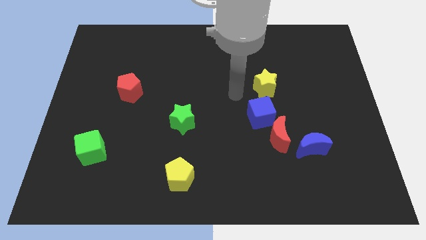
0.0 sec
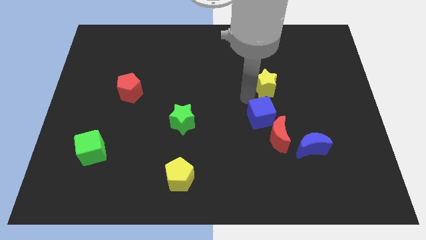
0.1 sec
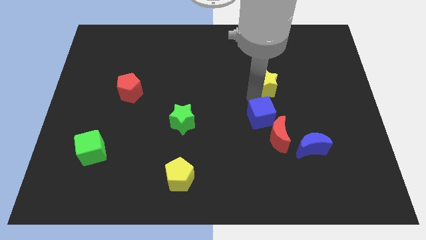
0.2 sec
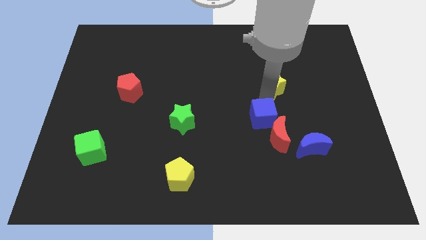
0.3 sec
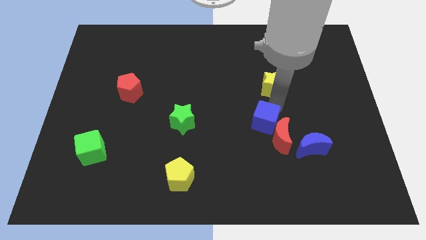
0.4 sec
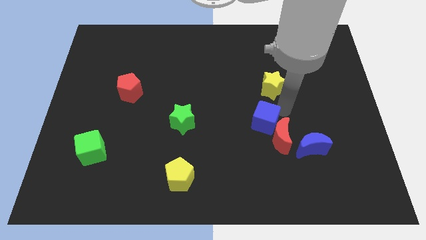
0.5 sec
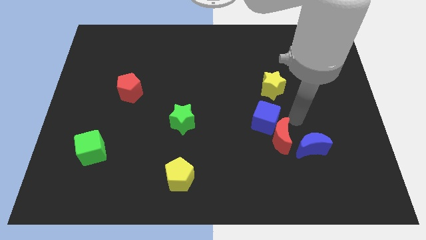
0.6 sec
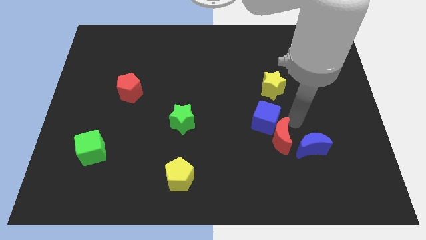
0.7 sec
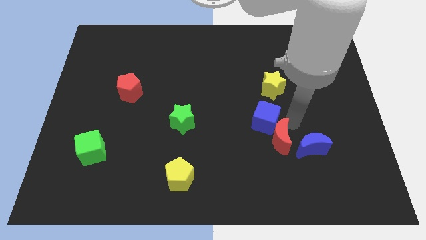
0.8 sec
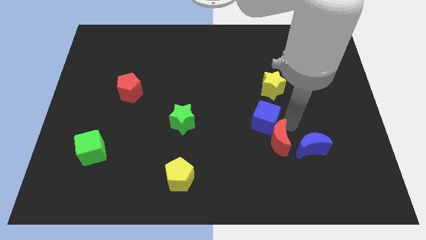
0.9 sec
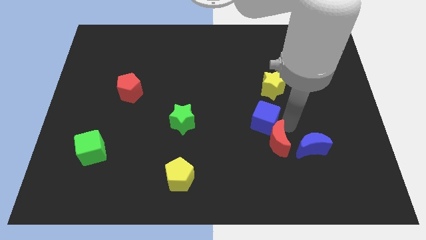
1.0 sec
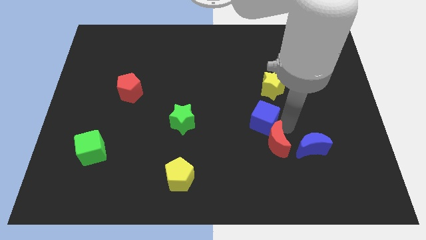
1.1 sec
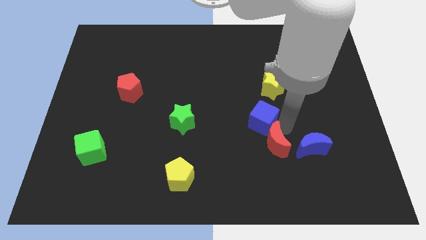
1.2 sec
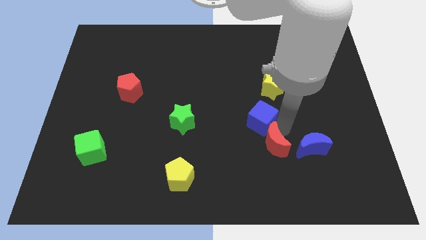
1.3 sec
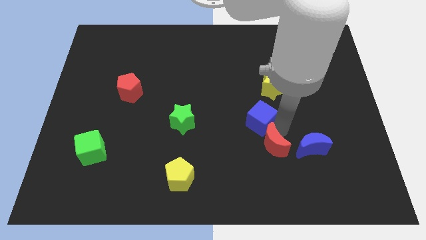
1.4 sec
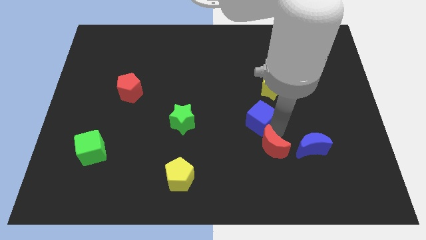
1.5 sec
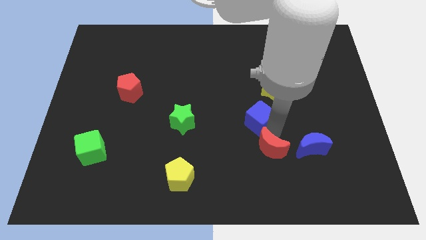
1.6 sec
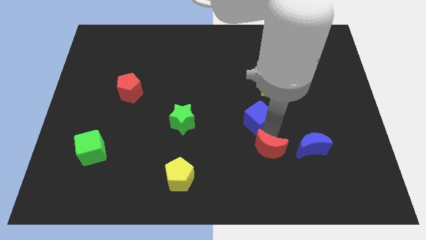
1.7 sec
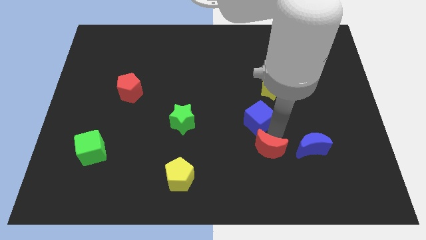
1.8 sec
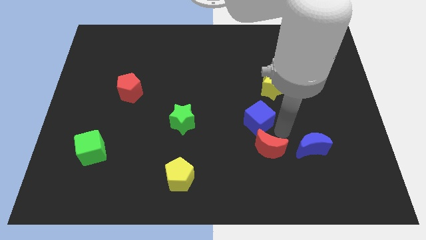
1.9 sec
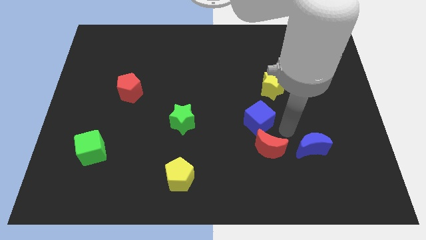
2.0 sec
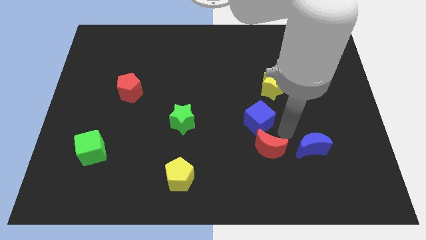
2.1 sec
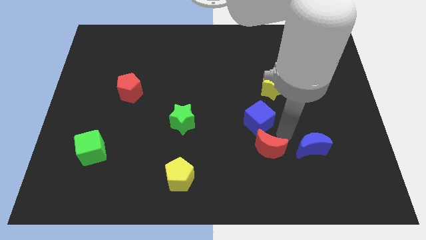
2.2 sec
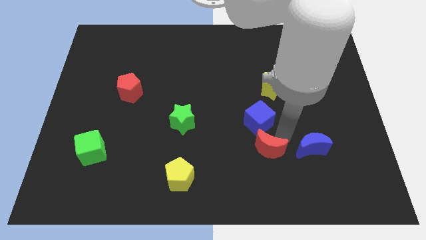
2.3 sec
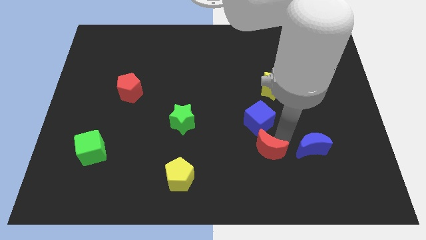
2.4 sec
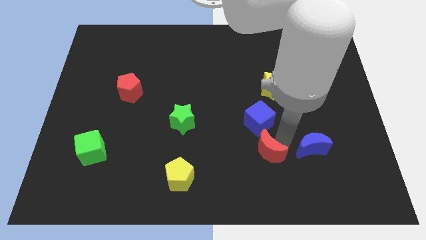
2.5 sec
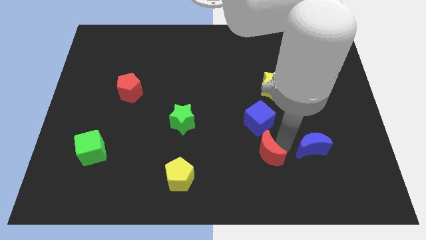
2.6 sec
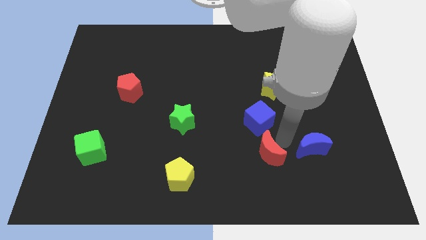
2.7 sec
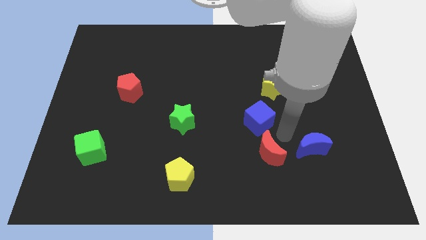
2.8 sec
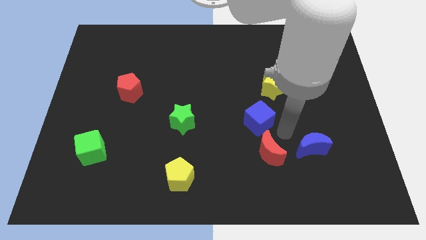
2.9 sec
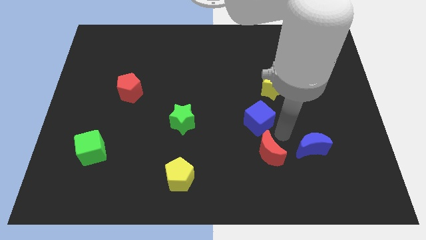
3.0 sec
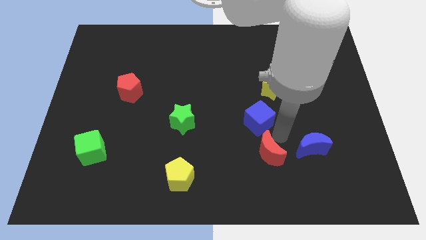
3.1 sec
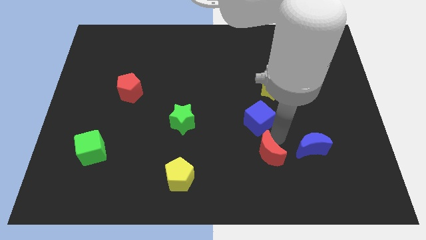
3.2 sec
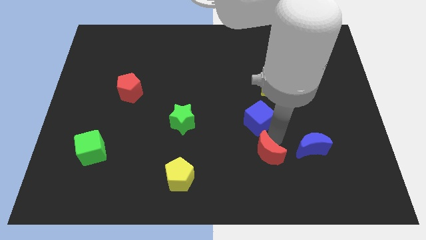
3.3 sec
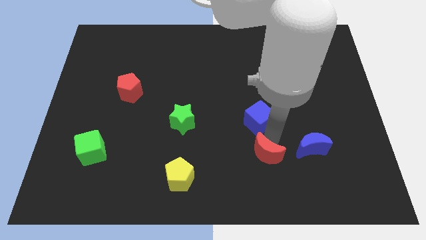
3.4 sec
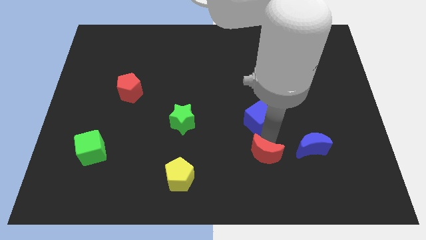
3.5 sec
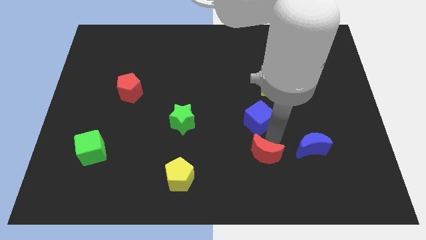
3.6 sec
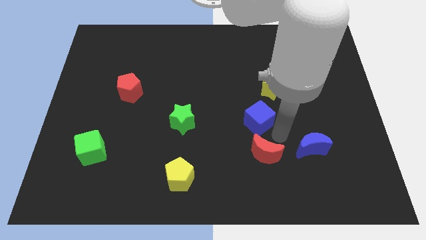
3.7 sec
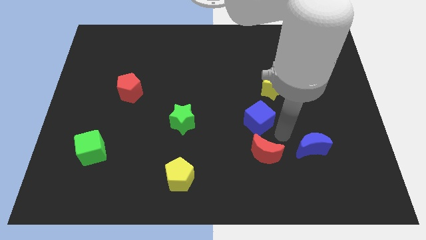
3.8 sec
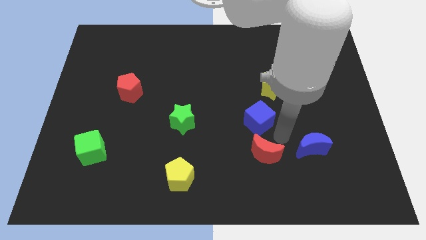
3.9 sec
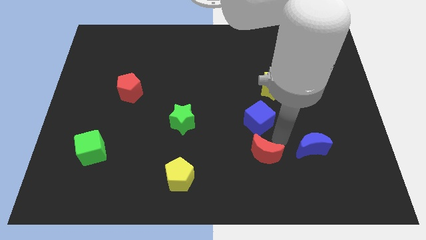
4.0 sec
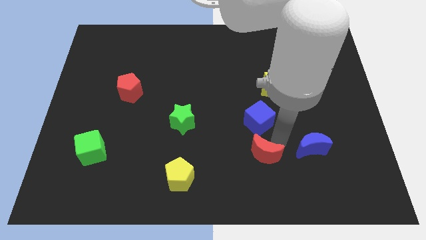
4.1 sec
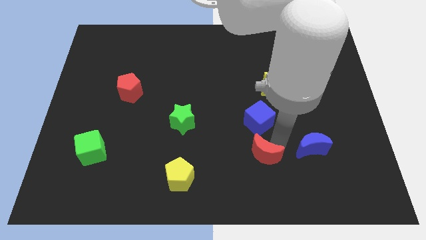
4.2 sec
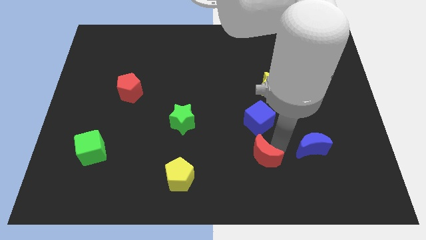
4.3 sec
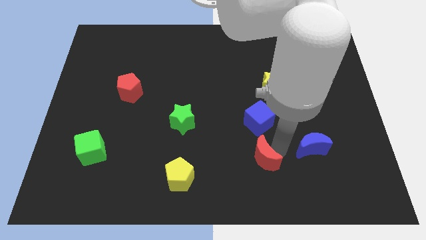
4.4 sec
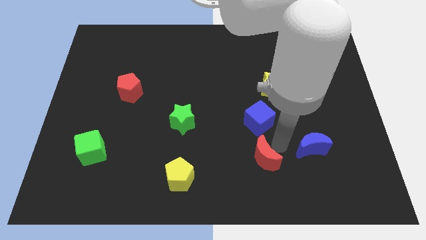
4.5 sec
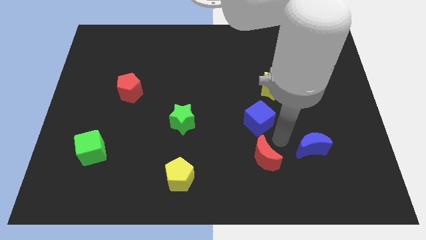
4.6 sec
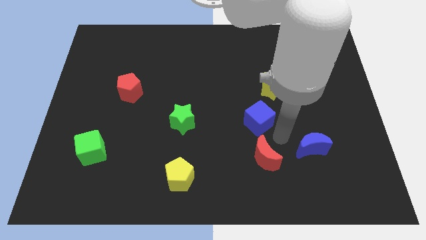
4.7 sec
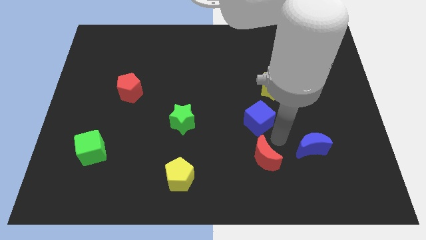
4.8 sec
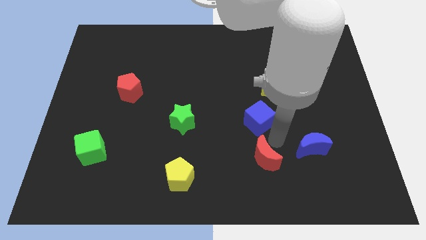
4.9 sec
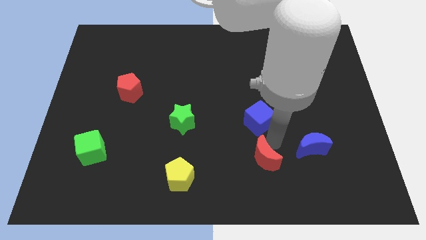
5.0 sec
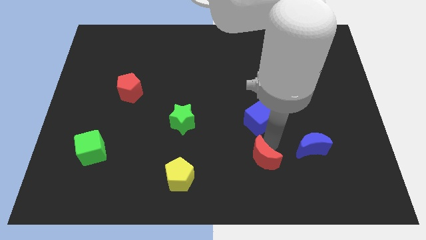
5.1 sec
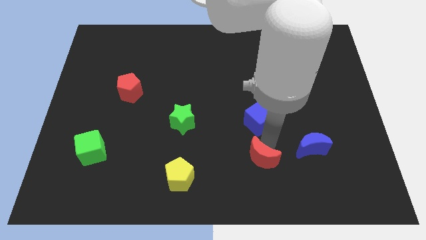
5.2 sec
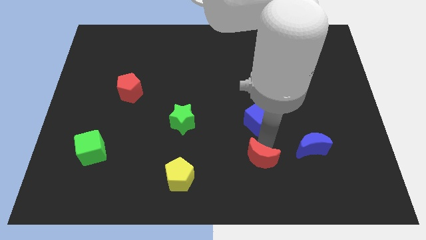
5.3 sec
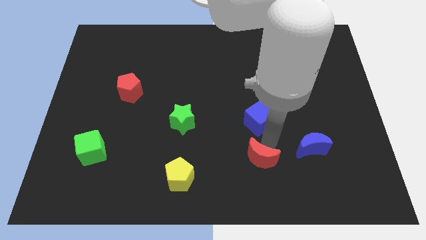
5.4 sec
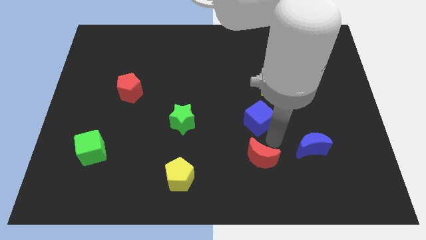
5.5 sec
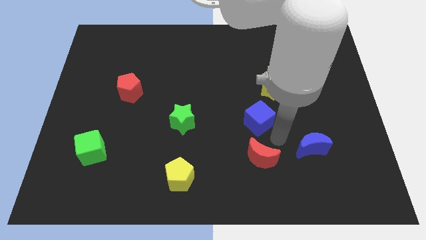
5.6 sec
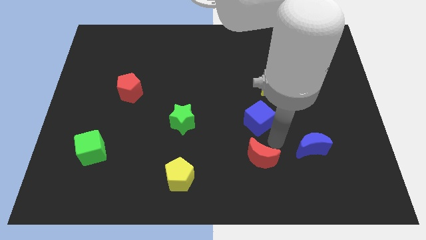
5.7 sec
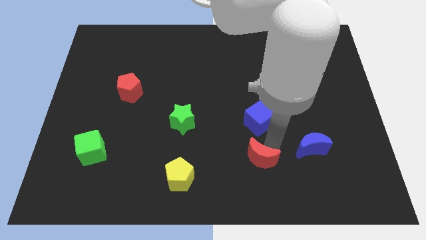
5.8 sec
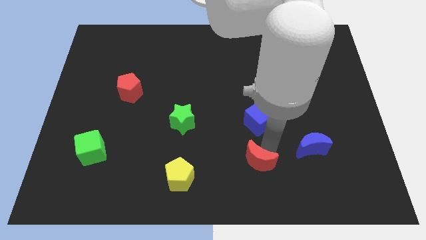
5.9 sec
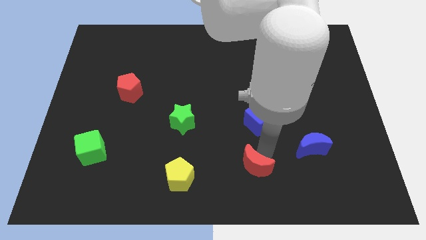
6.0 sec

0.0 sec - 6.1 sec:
separate the red moon from the blue cube and blue moon

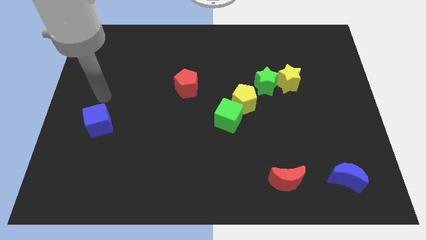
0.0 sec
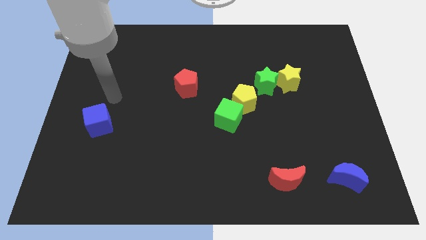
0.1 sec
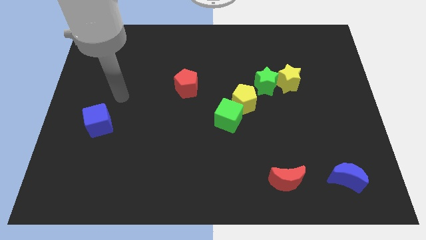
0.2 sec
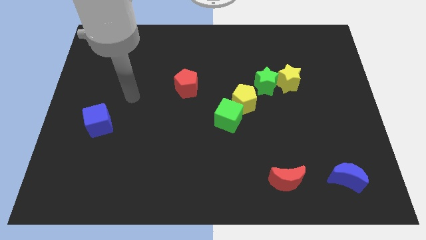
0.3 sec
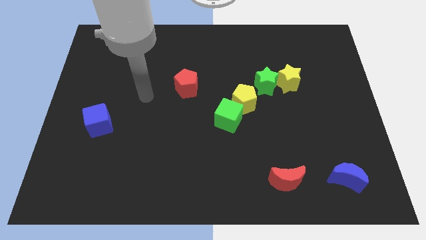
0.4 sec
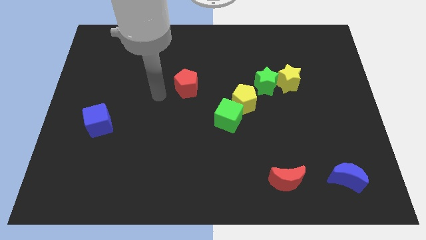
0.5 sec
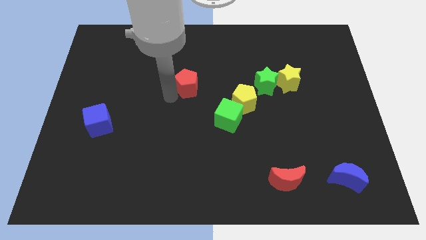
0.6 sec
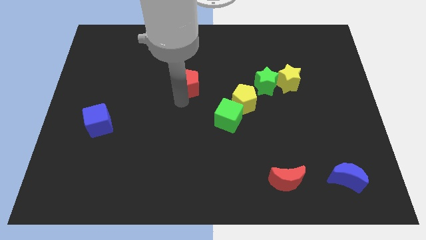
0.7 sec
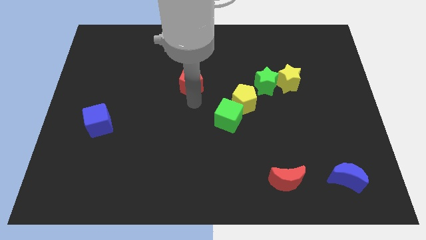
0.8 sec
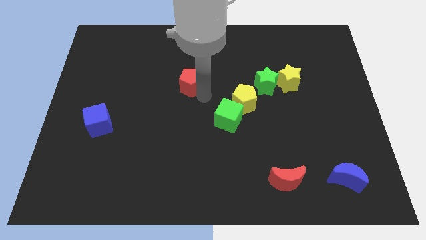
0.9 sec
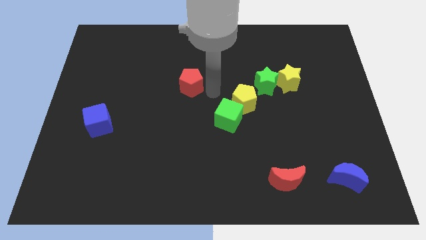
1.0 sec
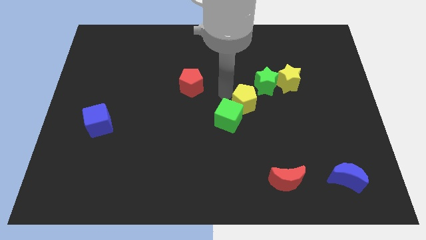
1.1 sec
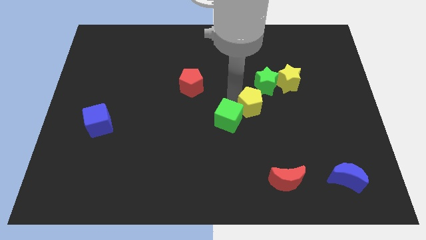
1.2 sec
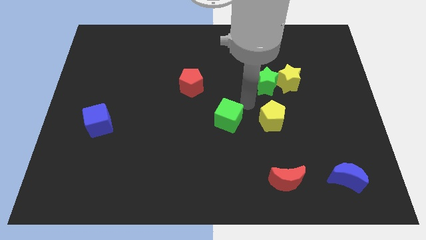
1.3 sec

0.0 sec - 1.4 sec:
pull the green cube apart from the yellow pentagon

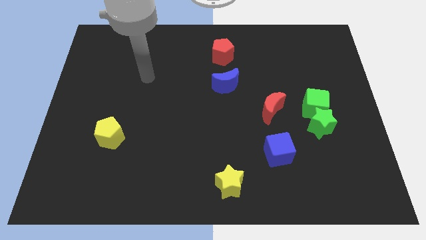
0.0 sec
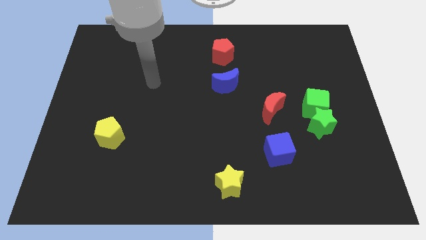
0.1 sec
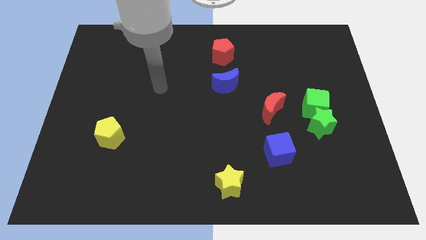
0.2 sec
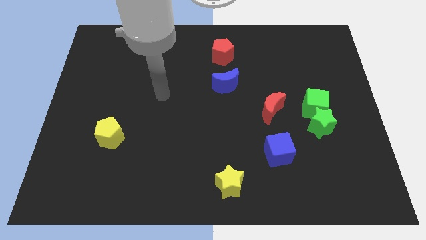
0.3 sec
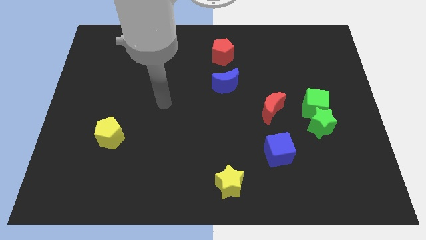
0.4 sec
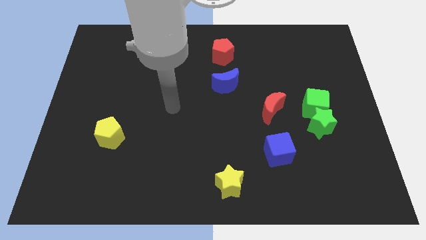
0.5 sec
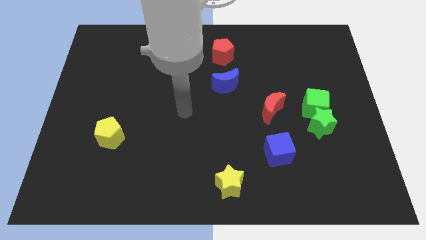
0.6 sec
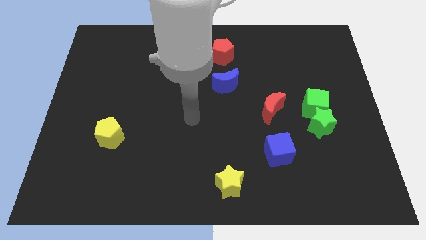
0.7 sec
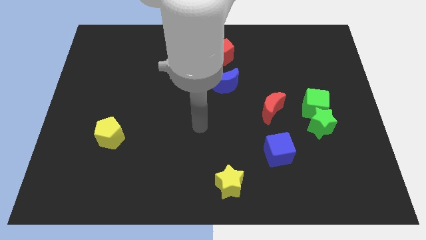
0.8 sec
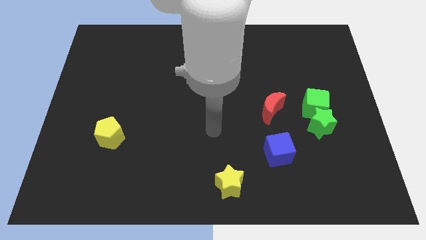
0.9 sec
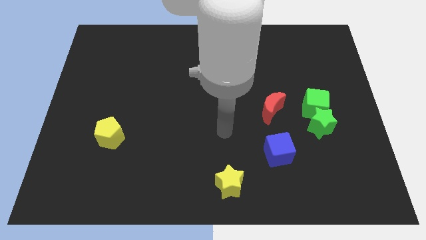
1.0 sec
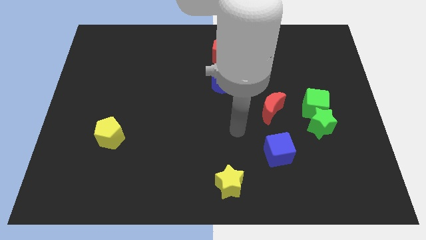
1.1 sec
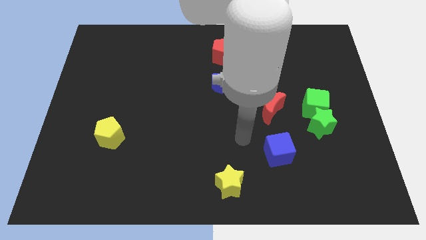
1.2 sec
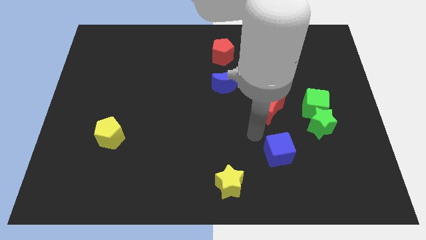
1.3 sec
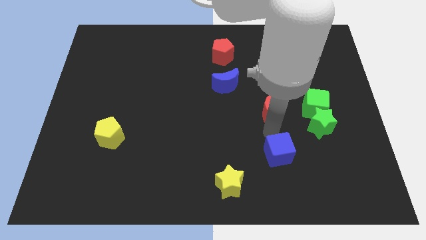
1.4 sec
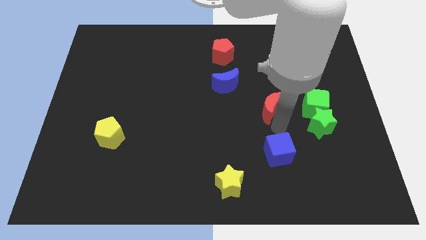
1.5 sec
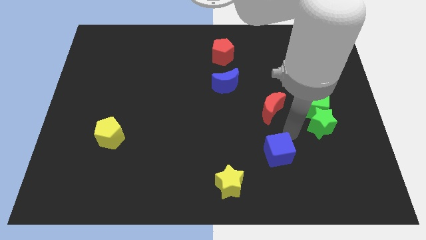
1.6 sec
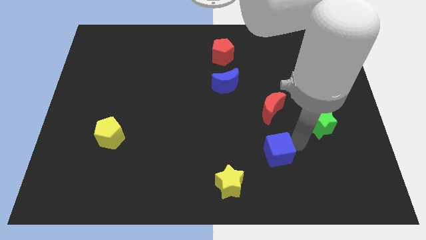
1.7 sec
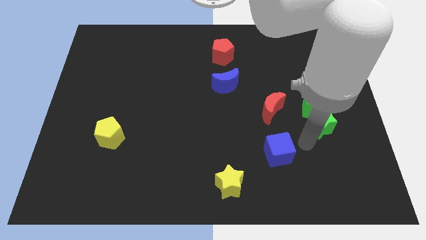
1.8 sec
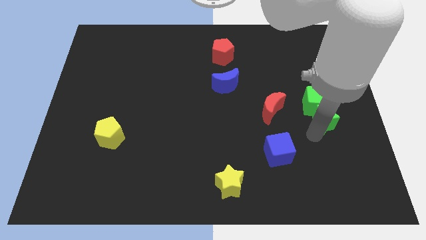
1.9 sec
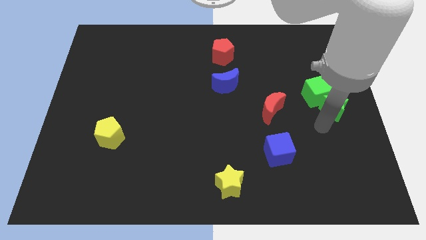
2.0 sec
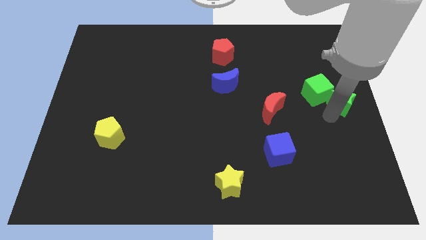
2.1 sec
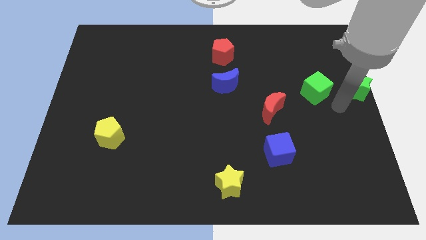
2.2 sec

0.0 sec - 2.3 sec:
pull the green cube apart from the green star
